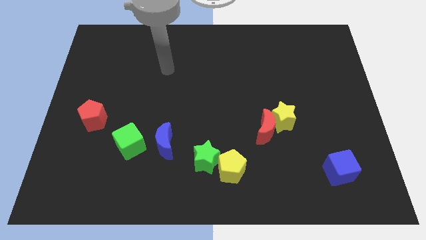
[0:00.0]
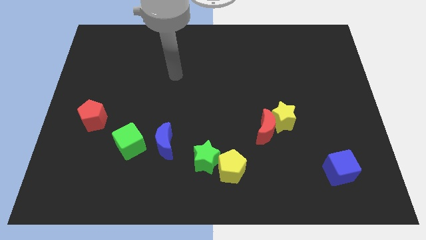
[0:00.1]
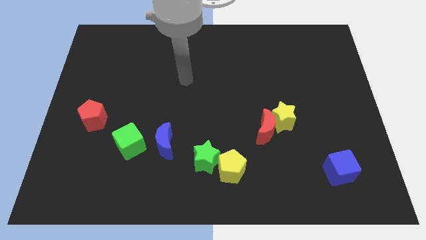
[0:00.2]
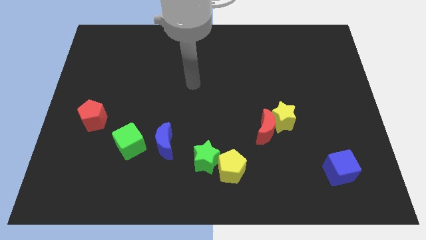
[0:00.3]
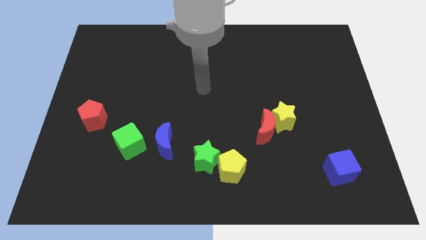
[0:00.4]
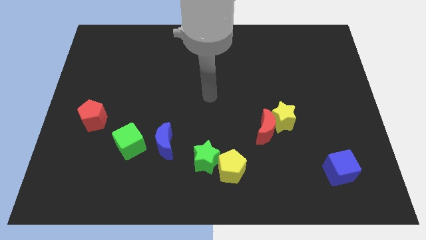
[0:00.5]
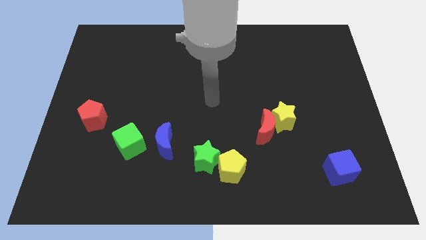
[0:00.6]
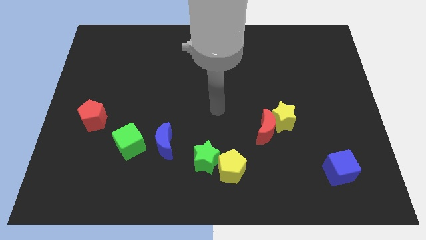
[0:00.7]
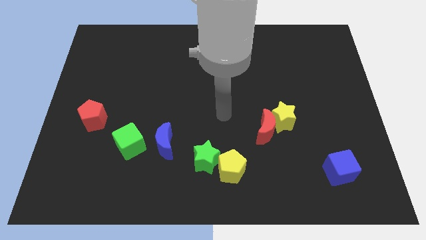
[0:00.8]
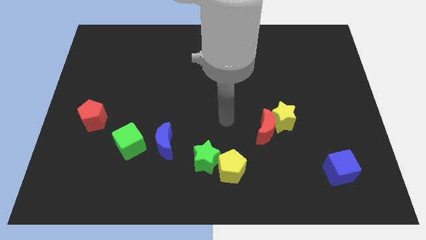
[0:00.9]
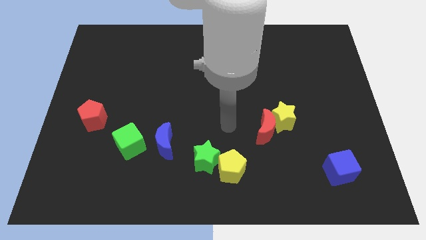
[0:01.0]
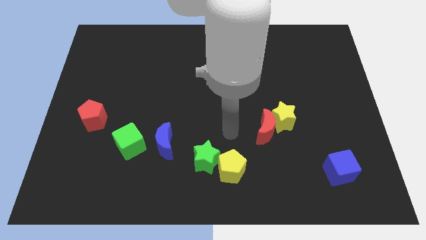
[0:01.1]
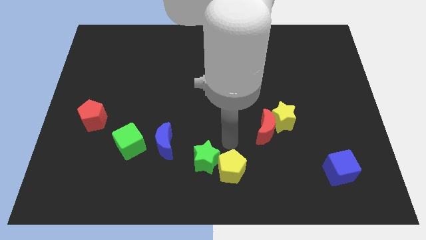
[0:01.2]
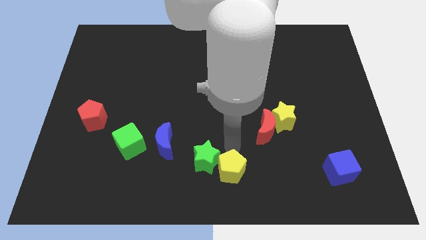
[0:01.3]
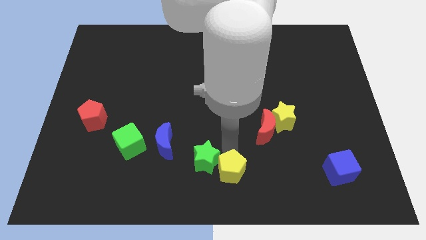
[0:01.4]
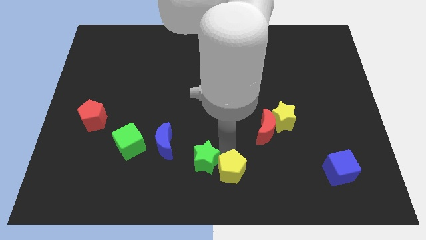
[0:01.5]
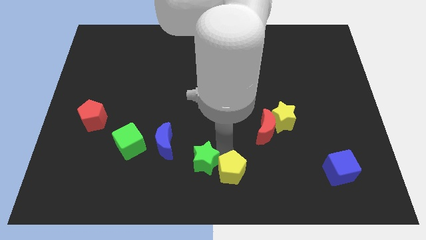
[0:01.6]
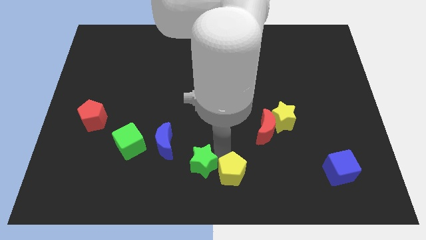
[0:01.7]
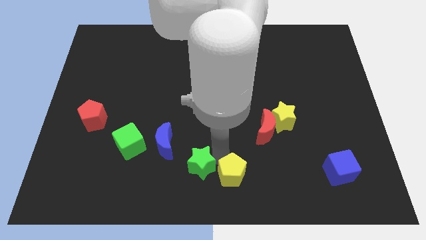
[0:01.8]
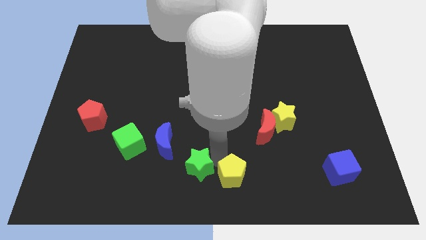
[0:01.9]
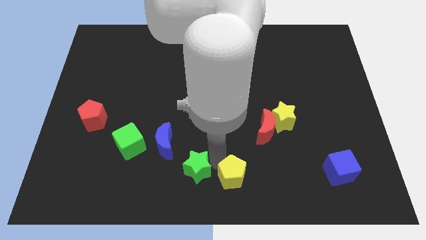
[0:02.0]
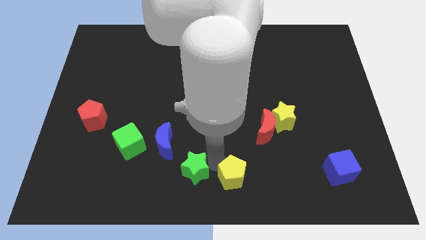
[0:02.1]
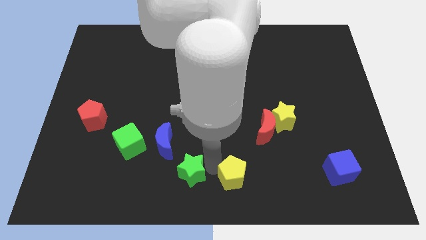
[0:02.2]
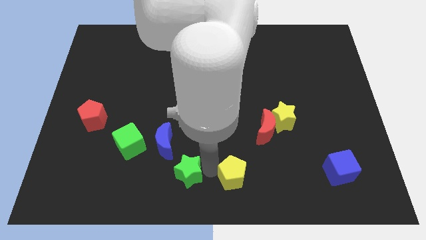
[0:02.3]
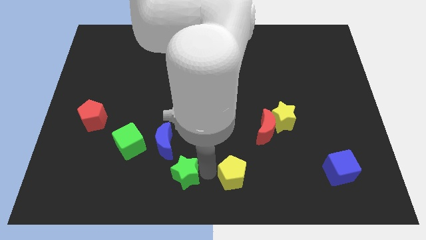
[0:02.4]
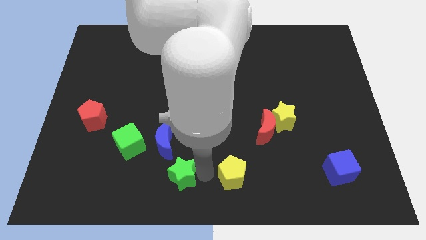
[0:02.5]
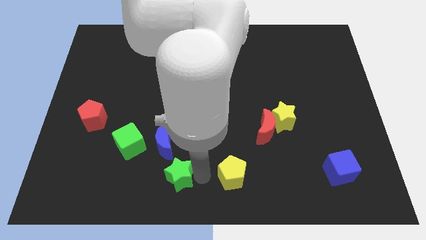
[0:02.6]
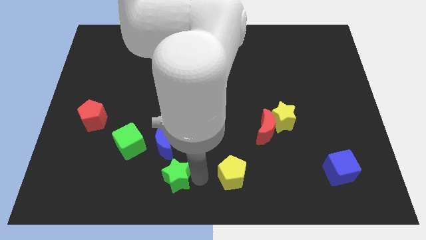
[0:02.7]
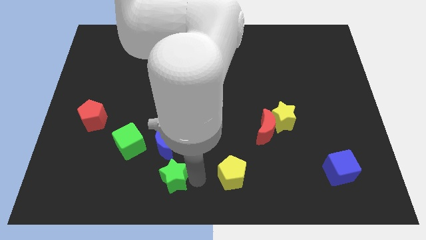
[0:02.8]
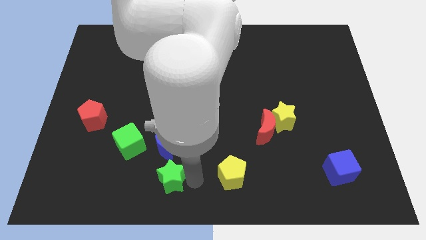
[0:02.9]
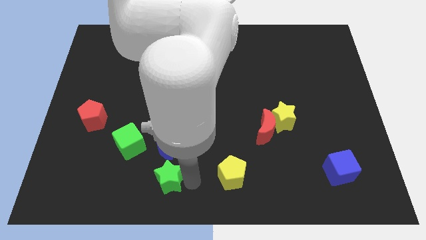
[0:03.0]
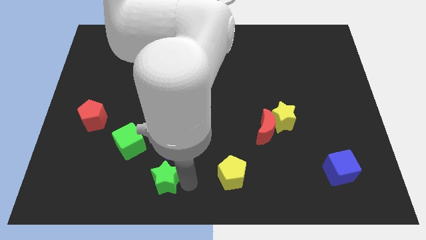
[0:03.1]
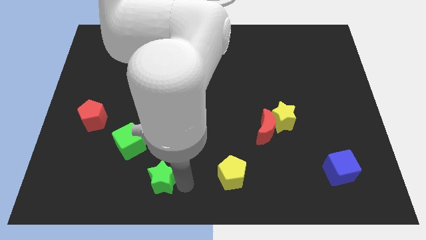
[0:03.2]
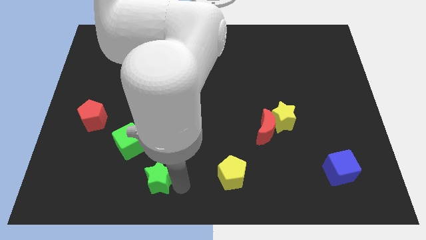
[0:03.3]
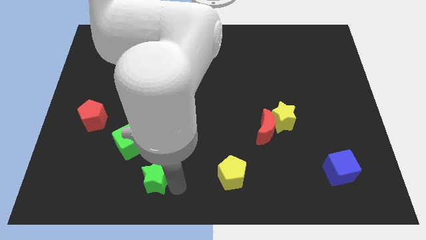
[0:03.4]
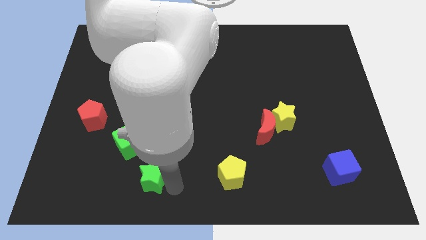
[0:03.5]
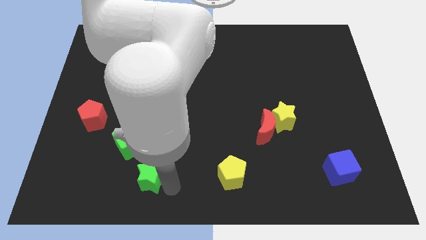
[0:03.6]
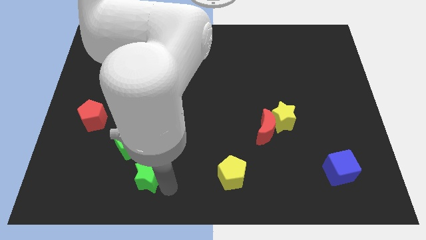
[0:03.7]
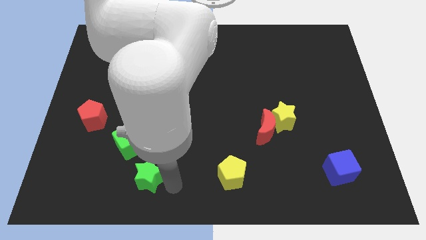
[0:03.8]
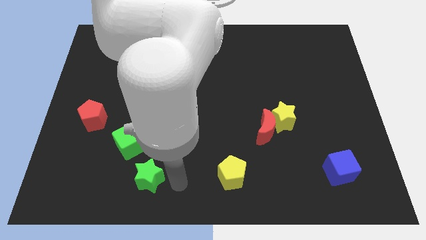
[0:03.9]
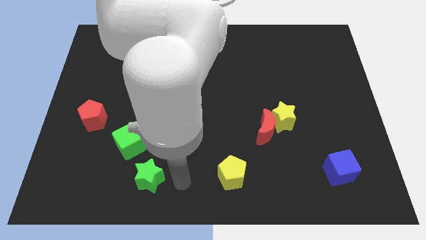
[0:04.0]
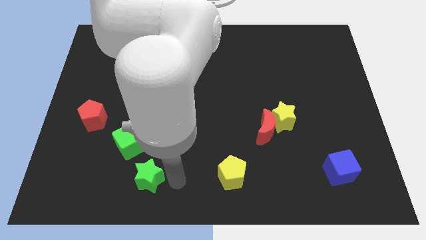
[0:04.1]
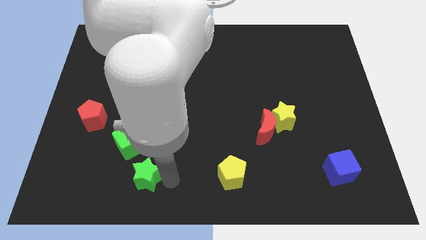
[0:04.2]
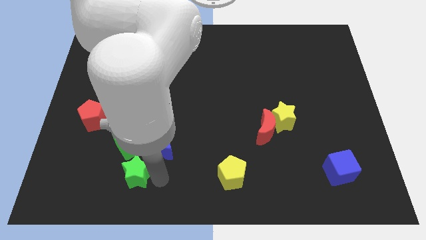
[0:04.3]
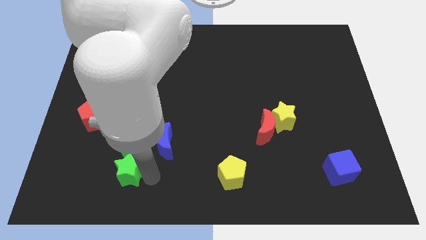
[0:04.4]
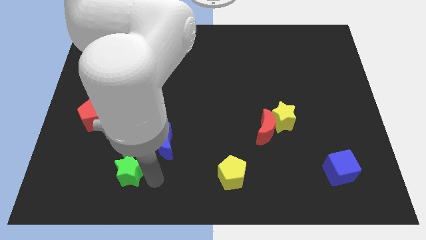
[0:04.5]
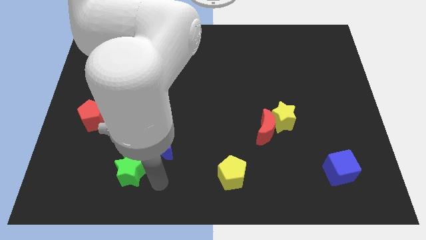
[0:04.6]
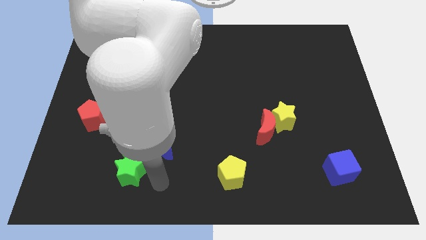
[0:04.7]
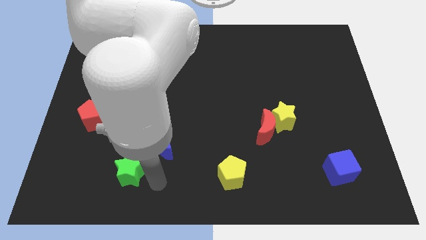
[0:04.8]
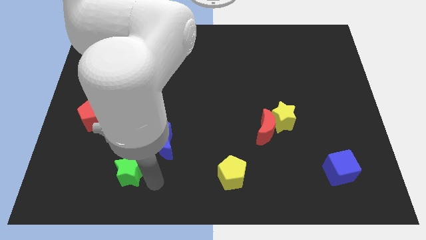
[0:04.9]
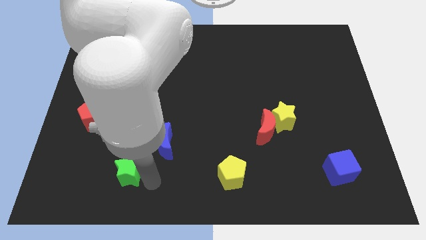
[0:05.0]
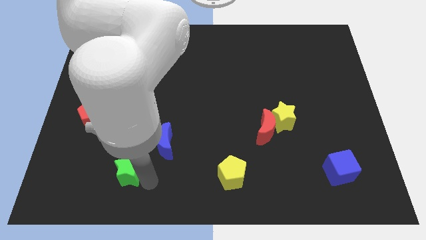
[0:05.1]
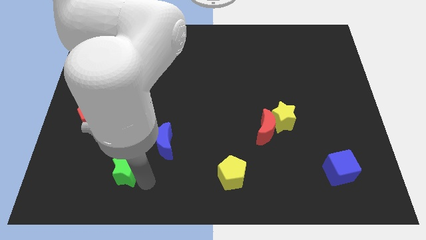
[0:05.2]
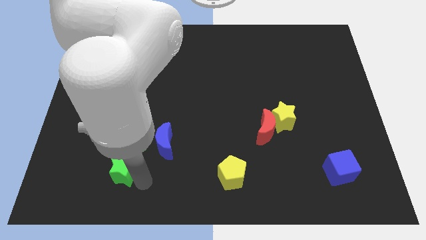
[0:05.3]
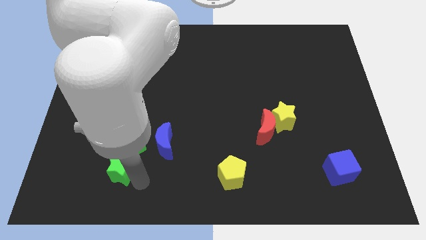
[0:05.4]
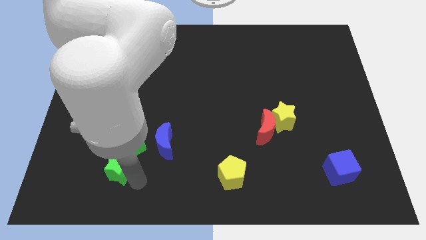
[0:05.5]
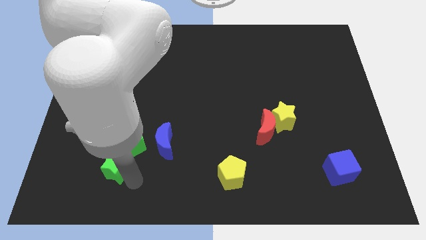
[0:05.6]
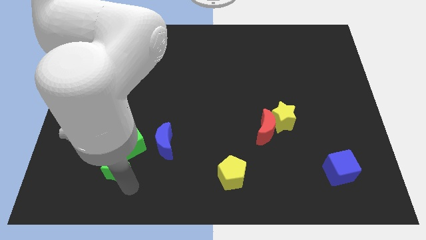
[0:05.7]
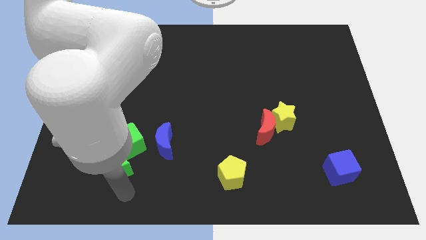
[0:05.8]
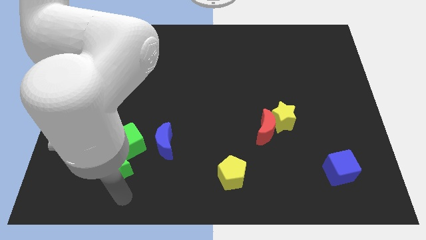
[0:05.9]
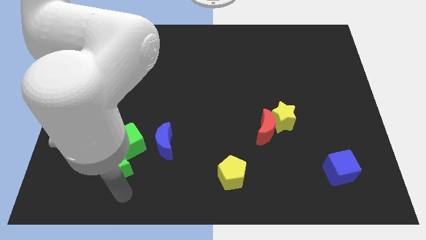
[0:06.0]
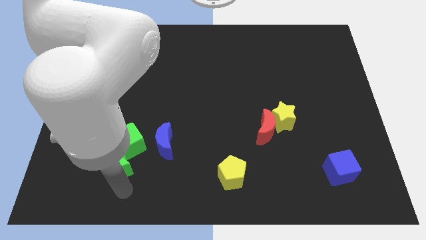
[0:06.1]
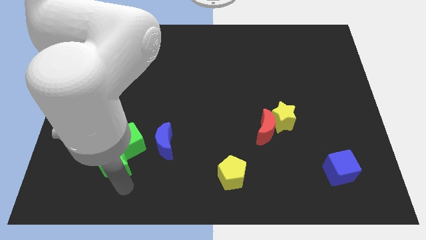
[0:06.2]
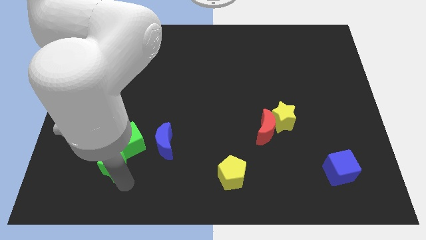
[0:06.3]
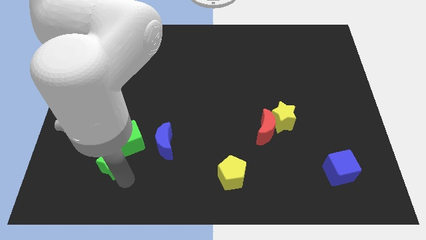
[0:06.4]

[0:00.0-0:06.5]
push the green star to the left of the blue moon
